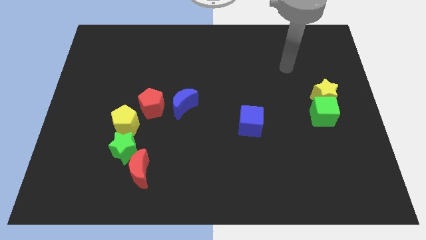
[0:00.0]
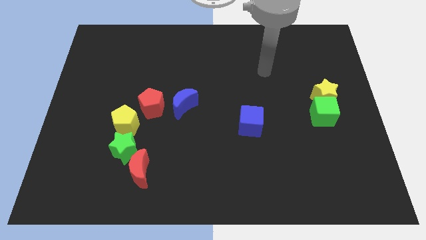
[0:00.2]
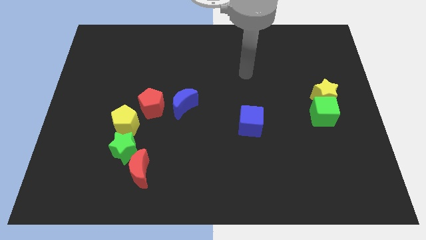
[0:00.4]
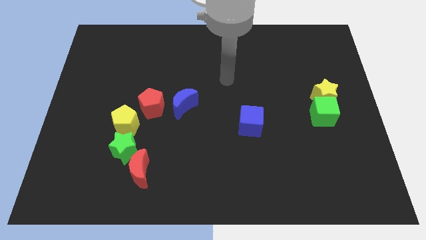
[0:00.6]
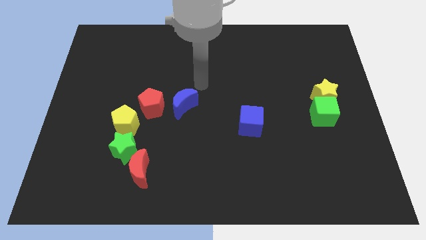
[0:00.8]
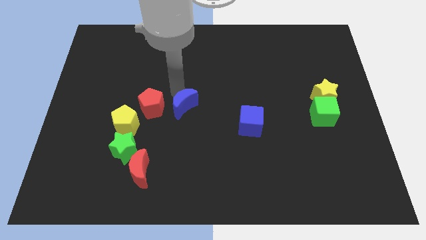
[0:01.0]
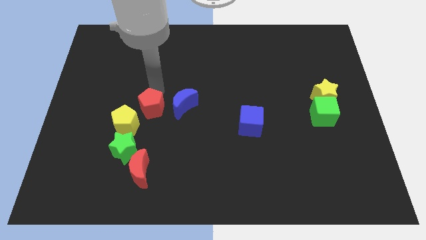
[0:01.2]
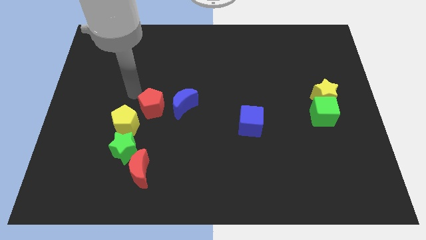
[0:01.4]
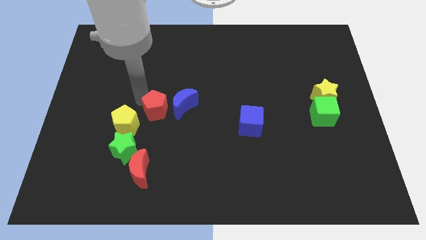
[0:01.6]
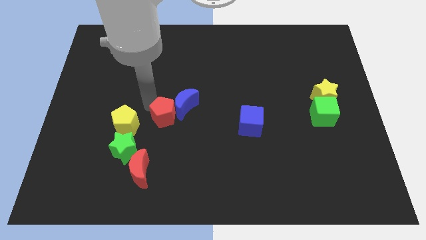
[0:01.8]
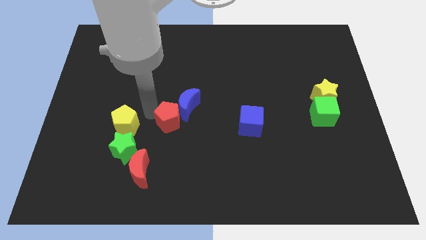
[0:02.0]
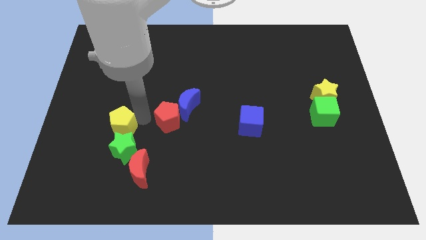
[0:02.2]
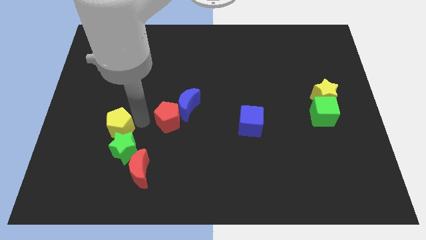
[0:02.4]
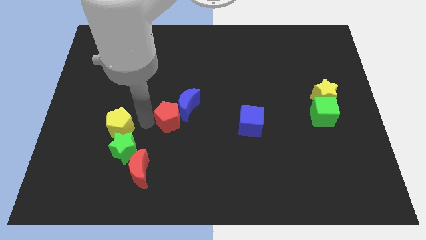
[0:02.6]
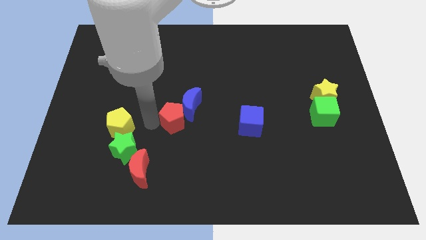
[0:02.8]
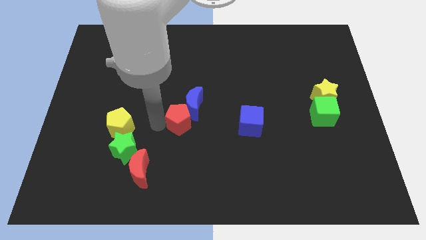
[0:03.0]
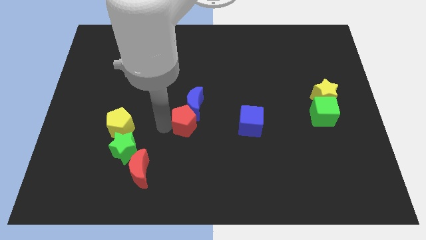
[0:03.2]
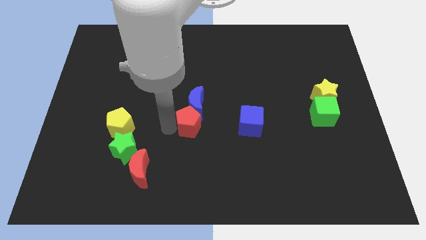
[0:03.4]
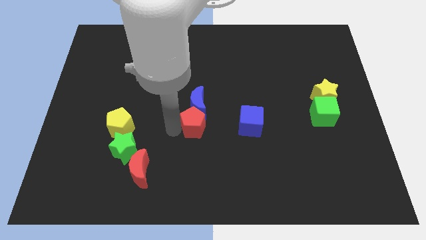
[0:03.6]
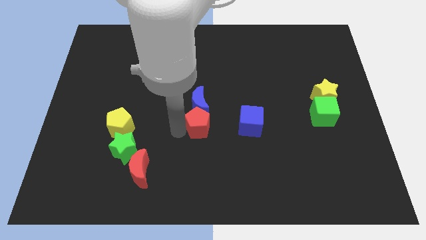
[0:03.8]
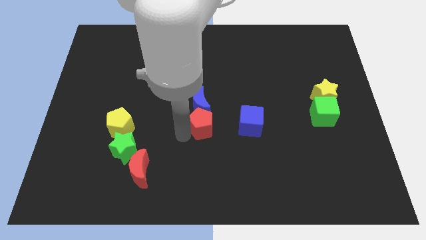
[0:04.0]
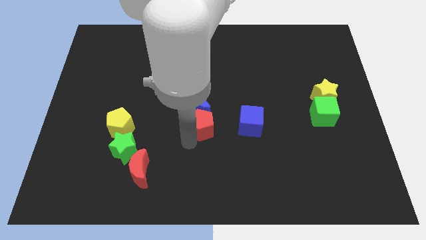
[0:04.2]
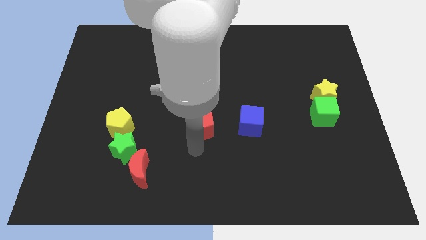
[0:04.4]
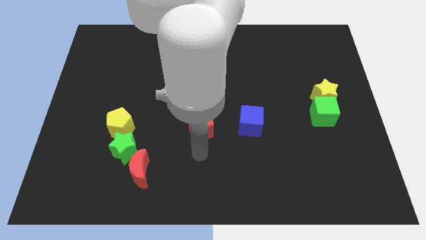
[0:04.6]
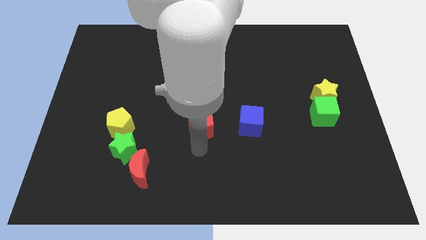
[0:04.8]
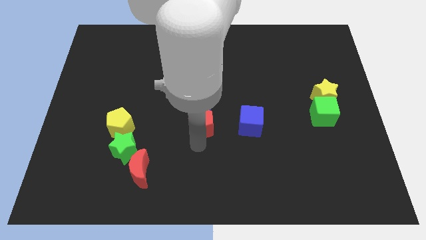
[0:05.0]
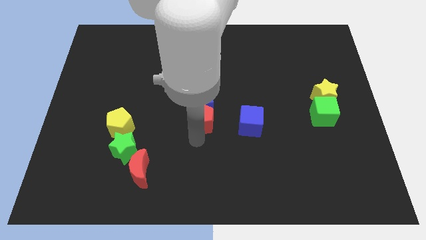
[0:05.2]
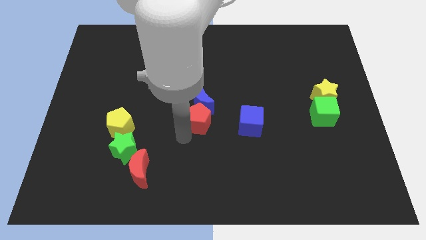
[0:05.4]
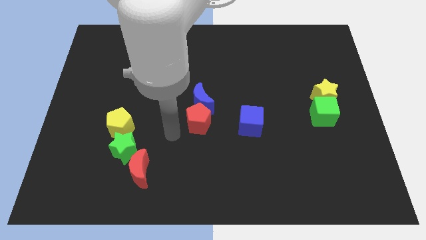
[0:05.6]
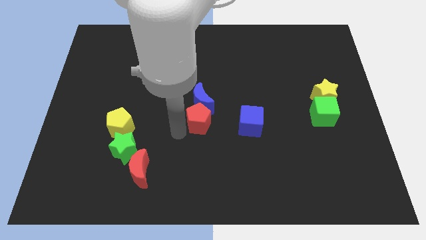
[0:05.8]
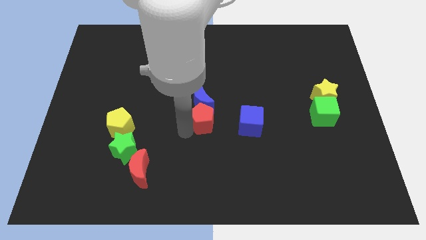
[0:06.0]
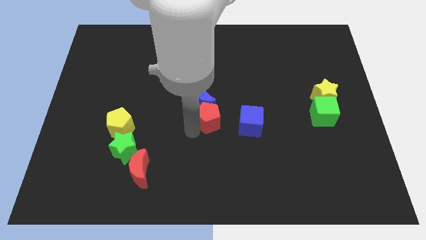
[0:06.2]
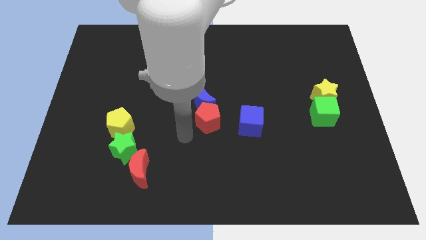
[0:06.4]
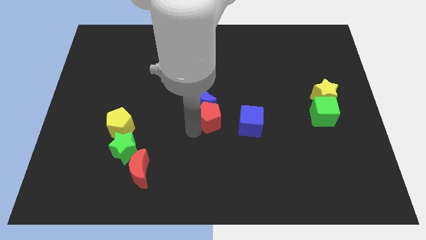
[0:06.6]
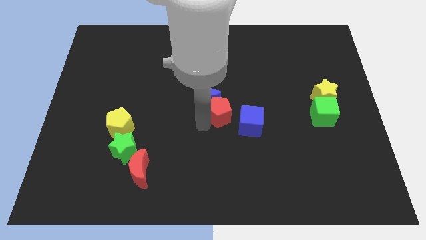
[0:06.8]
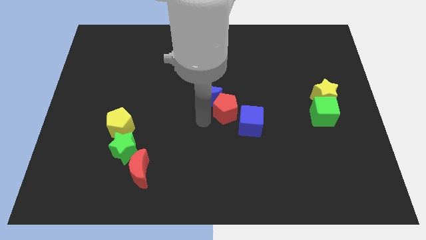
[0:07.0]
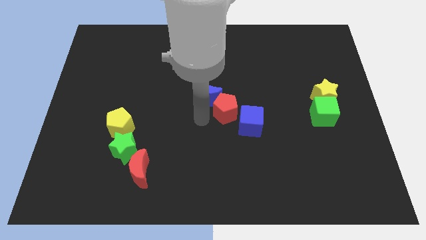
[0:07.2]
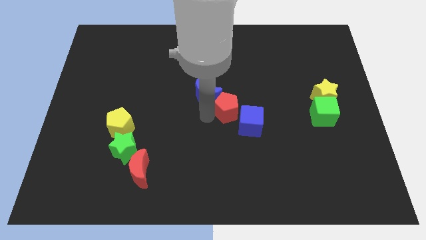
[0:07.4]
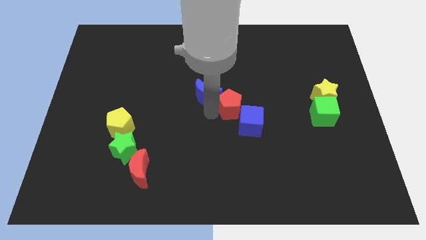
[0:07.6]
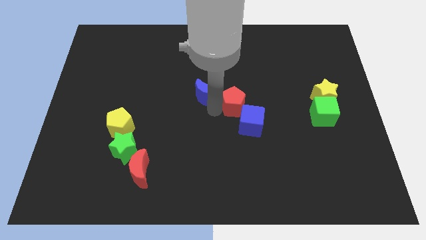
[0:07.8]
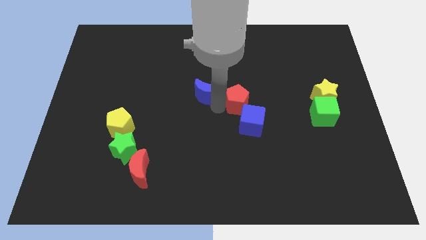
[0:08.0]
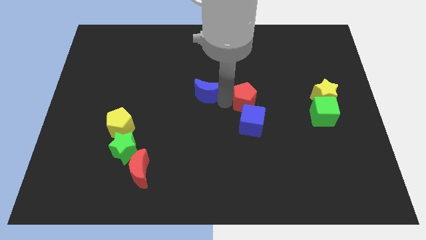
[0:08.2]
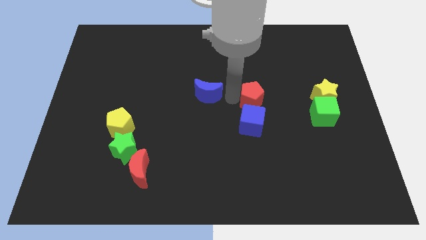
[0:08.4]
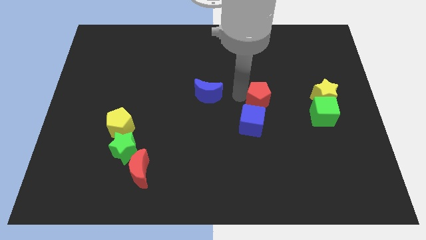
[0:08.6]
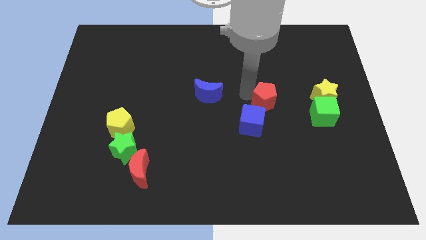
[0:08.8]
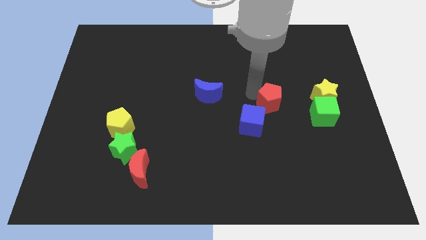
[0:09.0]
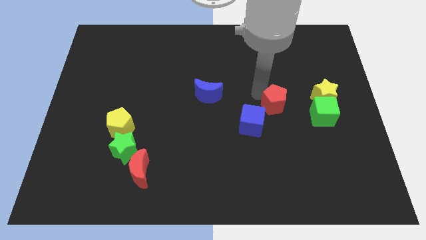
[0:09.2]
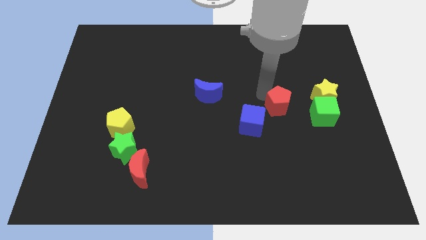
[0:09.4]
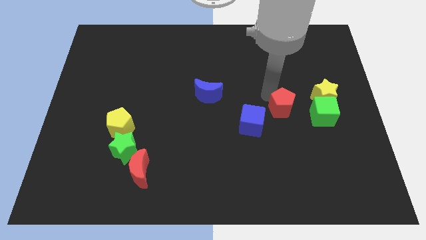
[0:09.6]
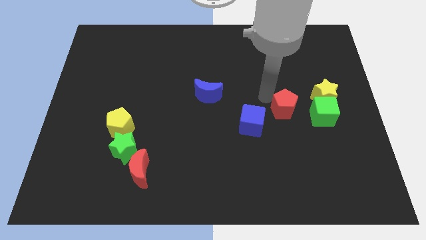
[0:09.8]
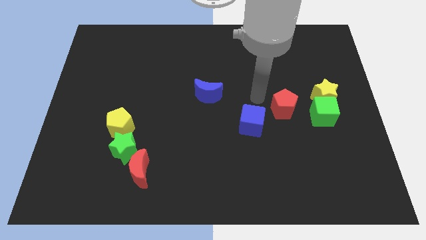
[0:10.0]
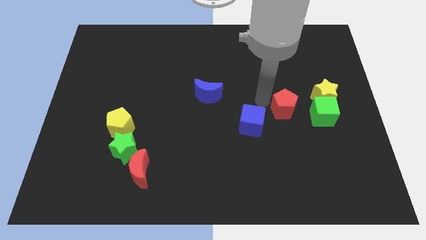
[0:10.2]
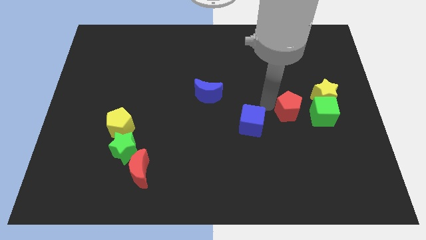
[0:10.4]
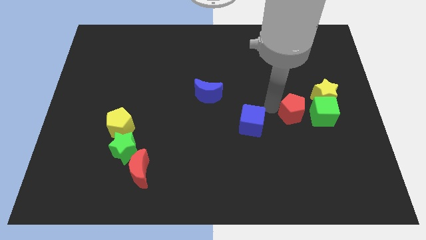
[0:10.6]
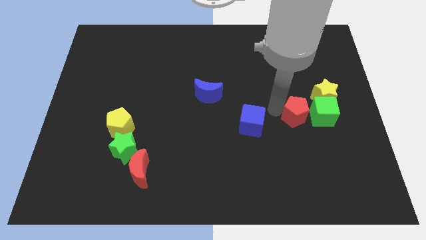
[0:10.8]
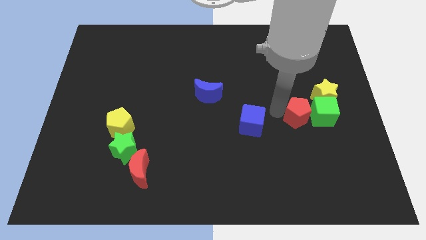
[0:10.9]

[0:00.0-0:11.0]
push the red pentagon to the green cube

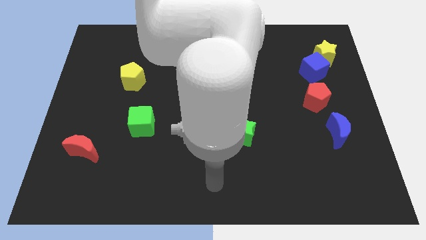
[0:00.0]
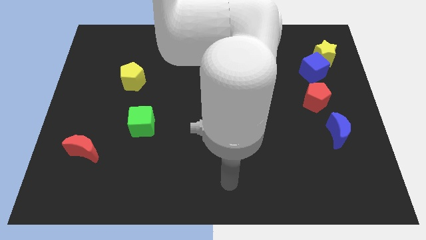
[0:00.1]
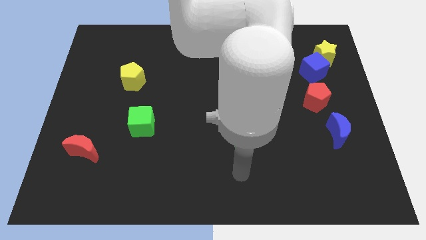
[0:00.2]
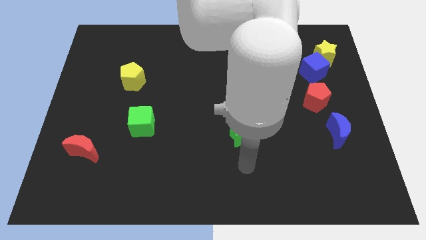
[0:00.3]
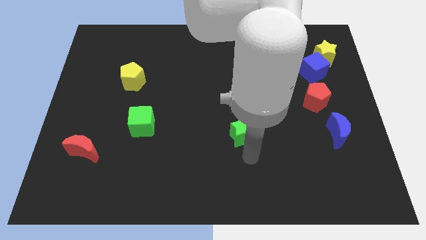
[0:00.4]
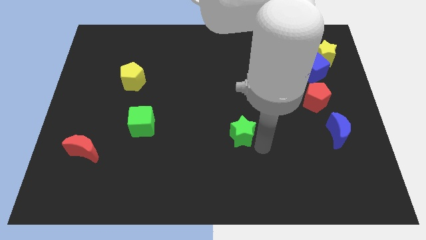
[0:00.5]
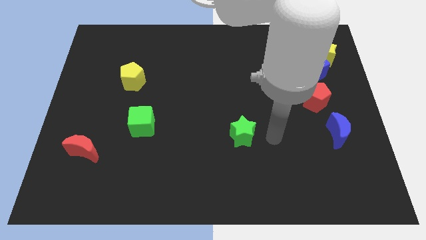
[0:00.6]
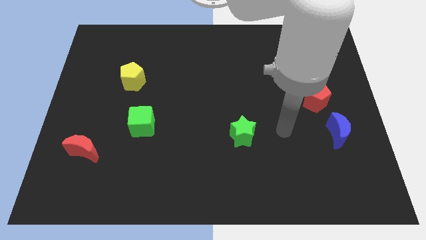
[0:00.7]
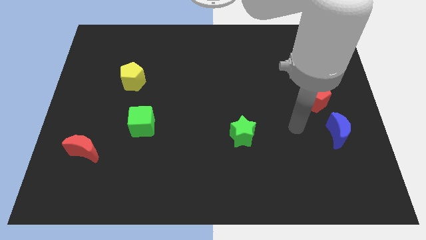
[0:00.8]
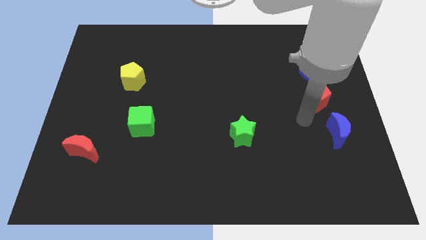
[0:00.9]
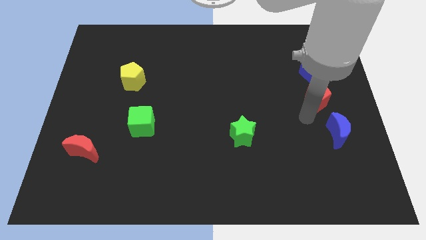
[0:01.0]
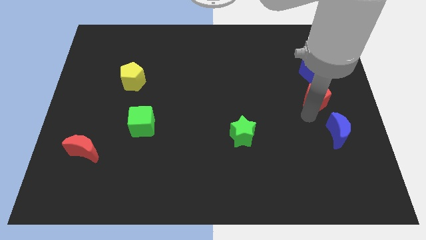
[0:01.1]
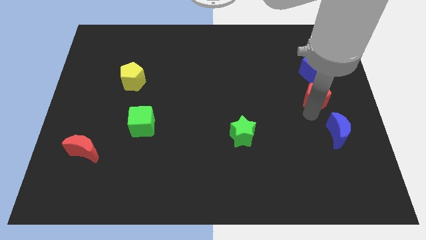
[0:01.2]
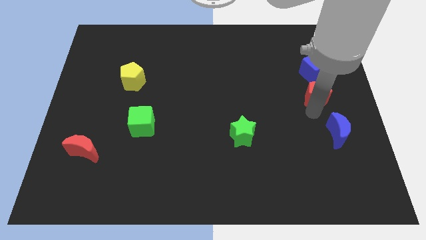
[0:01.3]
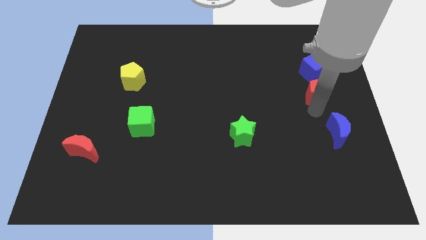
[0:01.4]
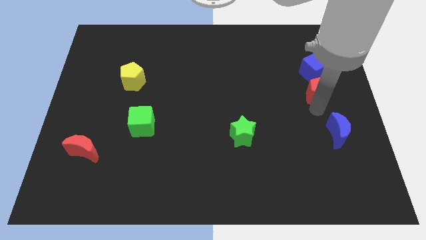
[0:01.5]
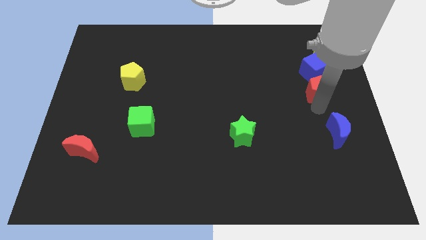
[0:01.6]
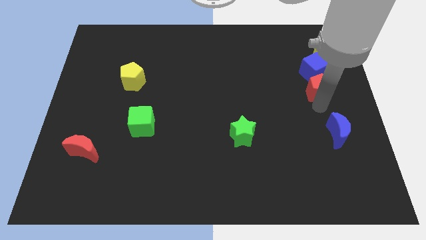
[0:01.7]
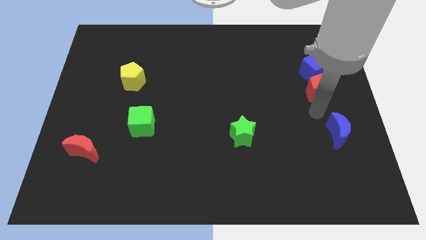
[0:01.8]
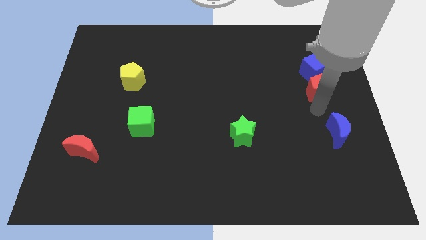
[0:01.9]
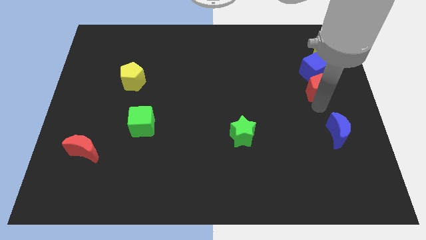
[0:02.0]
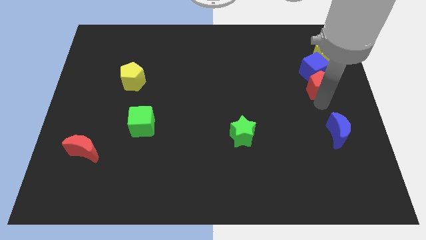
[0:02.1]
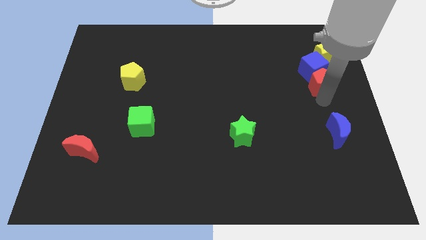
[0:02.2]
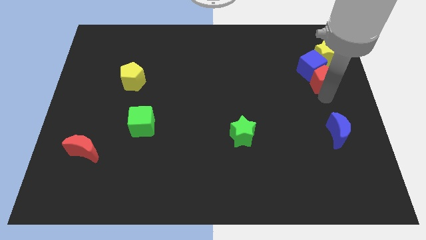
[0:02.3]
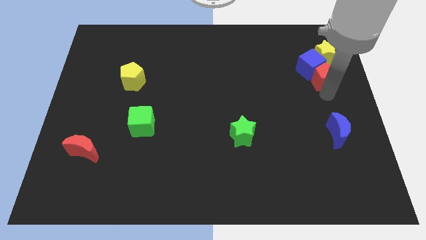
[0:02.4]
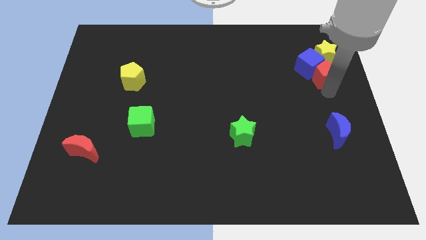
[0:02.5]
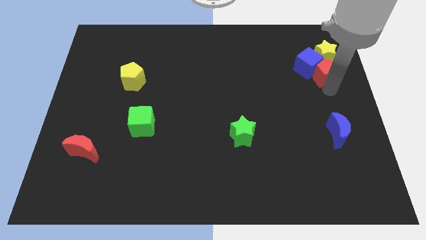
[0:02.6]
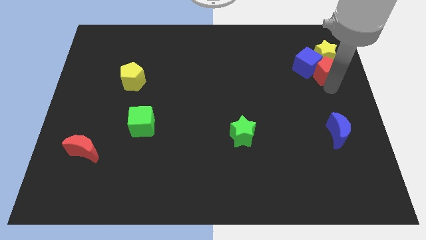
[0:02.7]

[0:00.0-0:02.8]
move the red pentagon towards the yellow star
